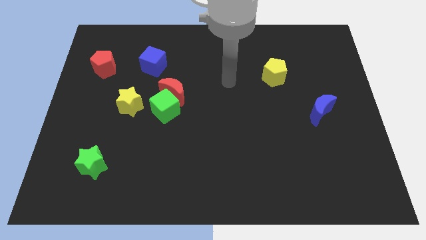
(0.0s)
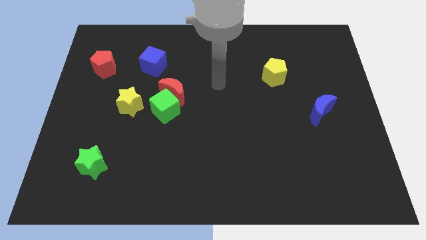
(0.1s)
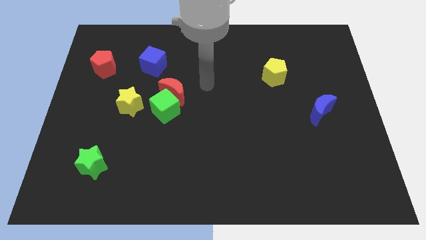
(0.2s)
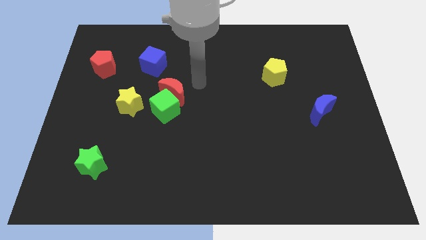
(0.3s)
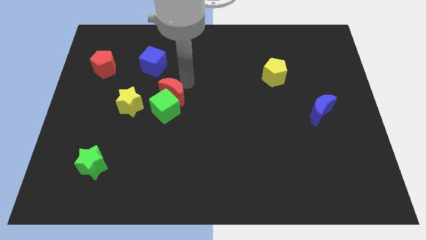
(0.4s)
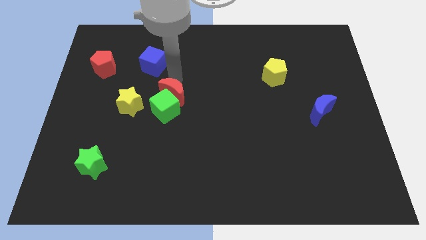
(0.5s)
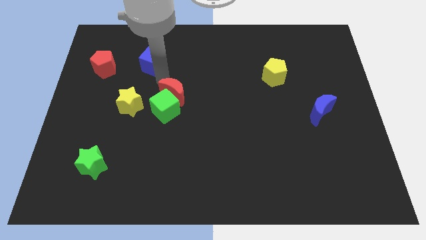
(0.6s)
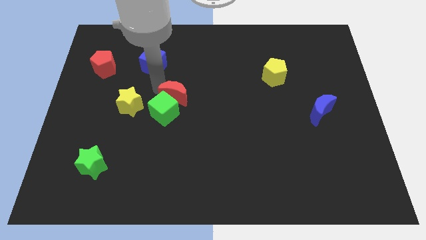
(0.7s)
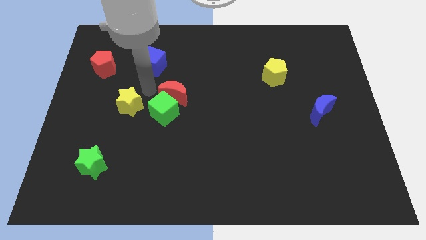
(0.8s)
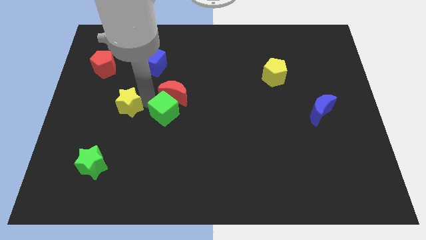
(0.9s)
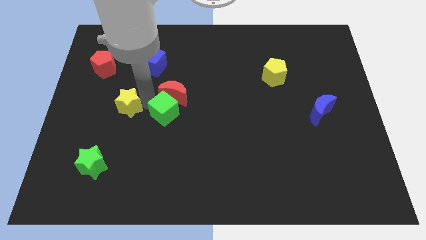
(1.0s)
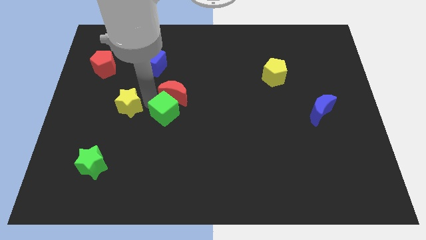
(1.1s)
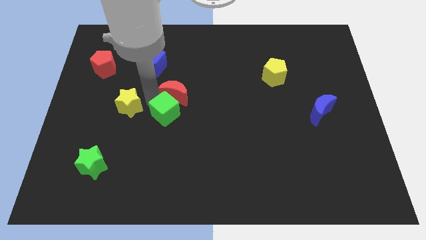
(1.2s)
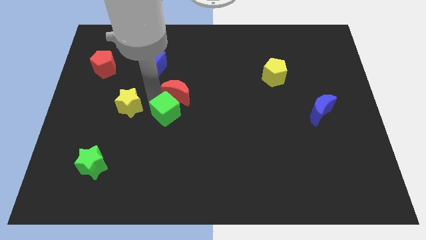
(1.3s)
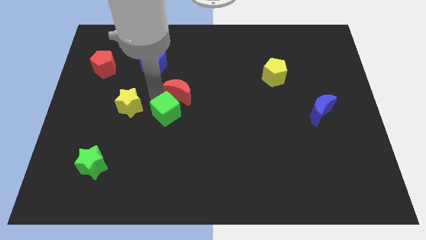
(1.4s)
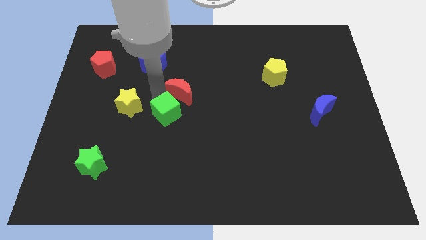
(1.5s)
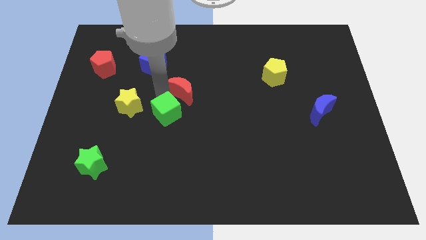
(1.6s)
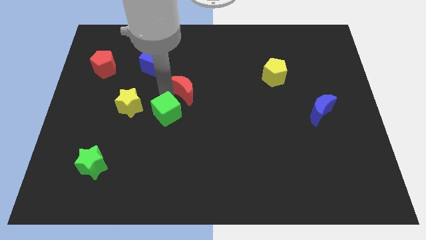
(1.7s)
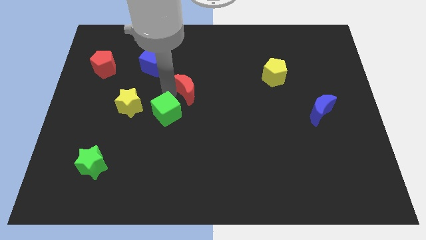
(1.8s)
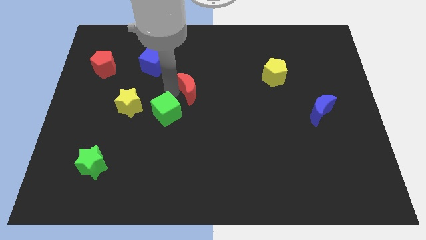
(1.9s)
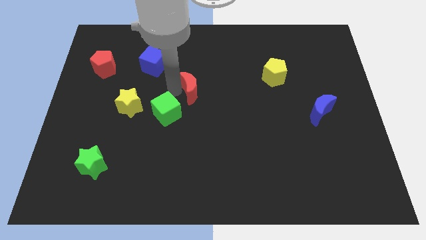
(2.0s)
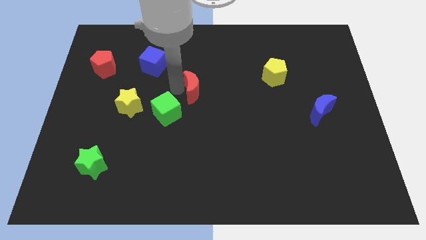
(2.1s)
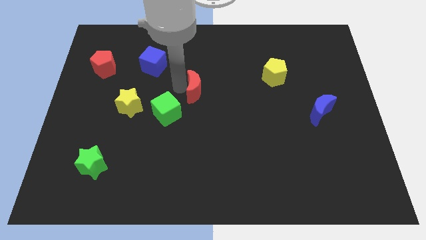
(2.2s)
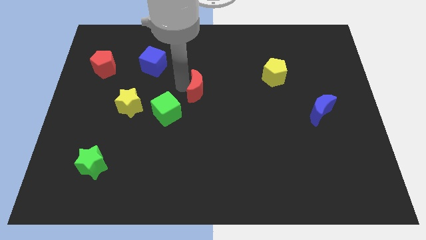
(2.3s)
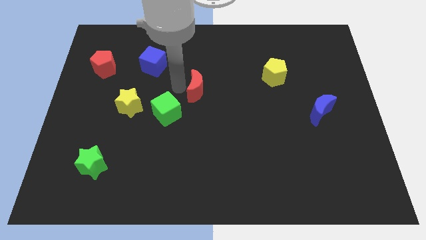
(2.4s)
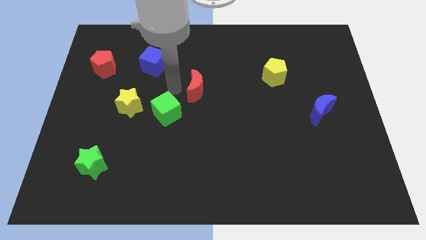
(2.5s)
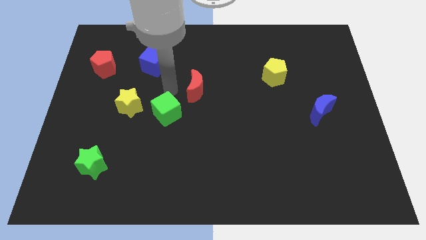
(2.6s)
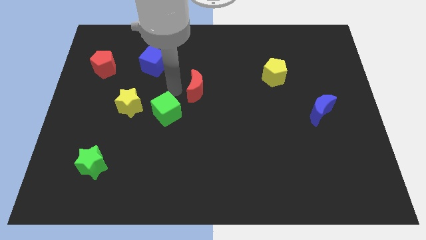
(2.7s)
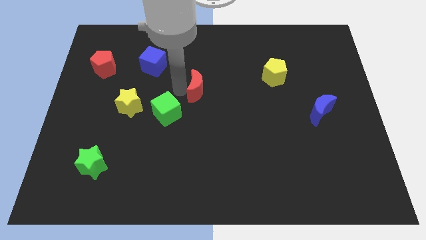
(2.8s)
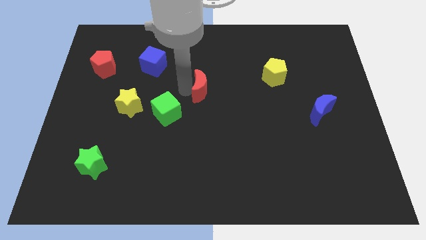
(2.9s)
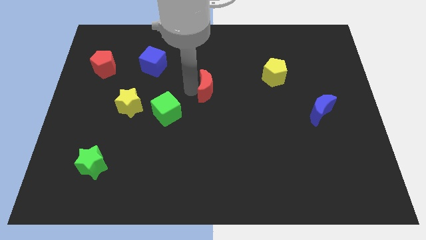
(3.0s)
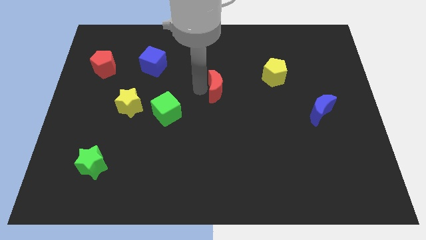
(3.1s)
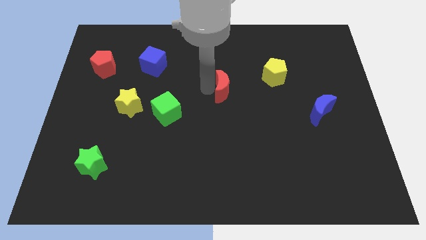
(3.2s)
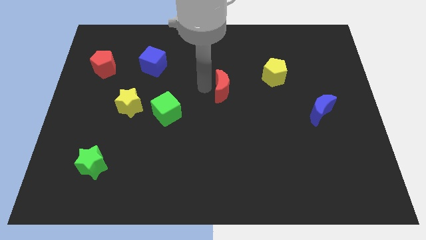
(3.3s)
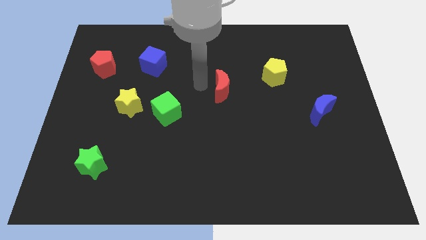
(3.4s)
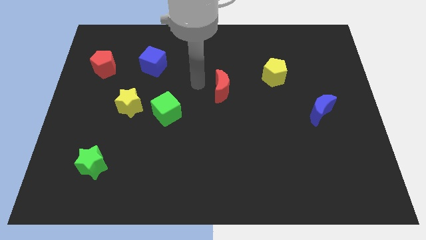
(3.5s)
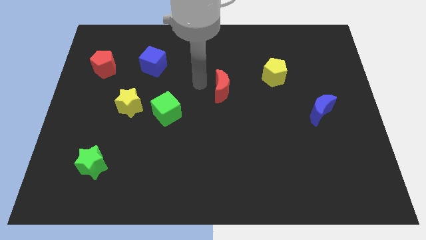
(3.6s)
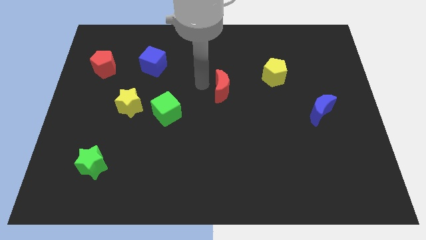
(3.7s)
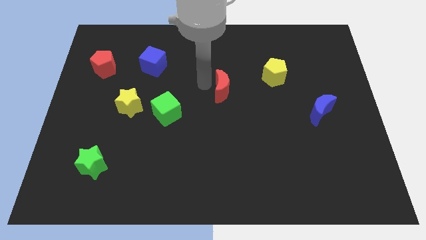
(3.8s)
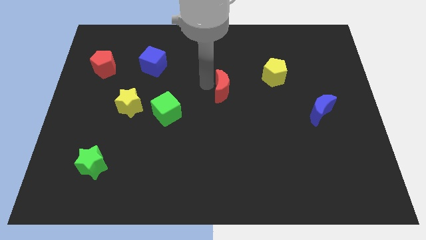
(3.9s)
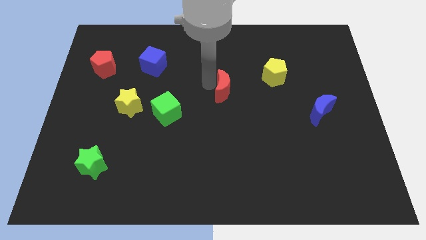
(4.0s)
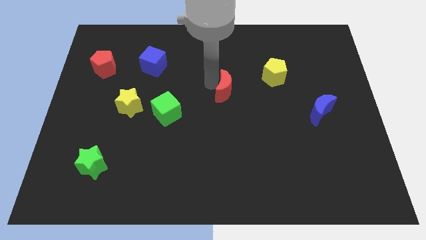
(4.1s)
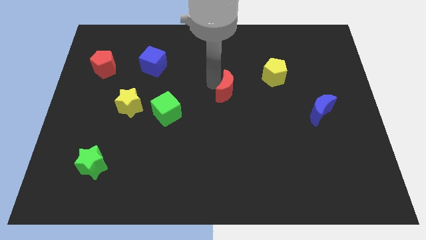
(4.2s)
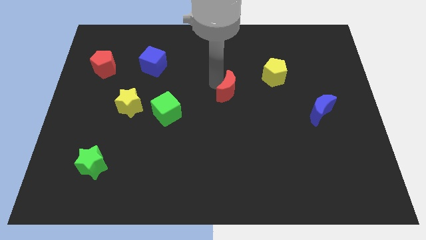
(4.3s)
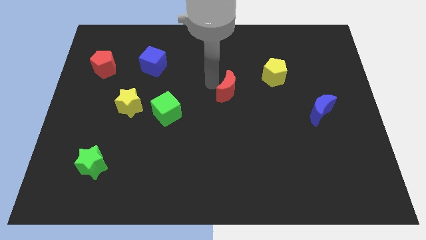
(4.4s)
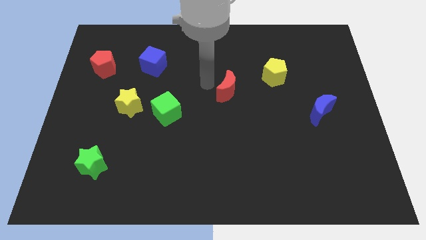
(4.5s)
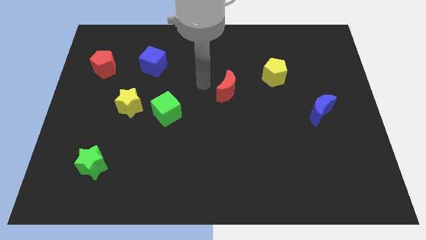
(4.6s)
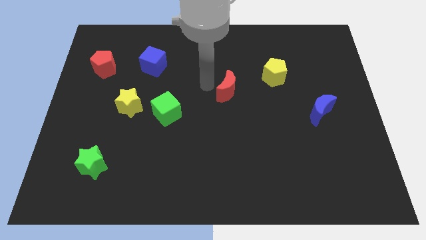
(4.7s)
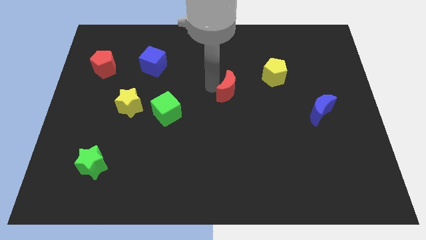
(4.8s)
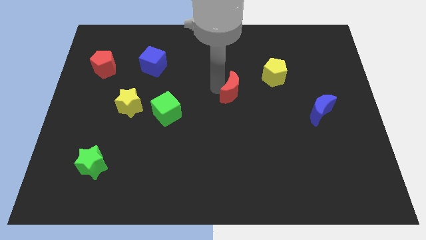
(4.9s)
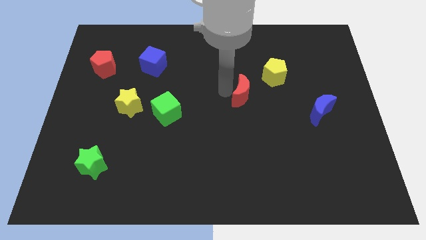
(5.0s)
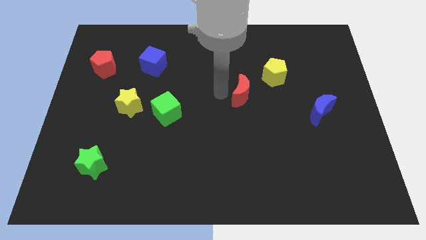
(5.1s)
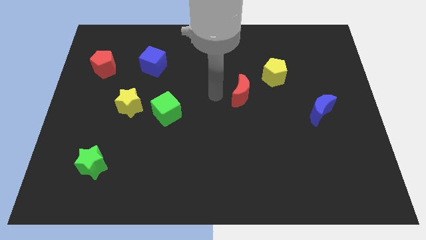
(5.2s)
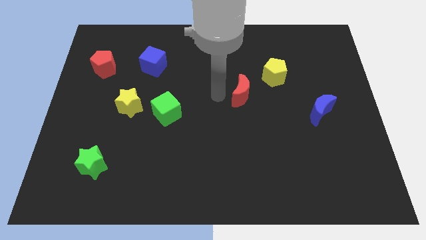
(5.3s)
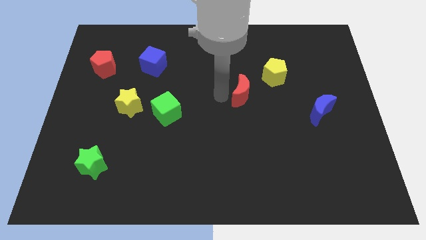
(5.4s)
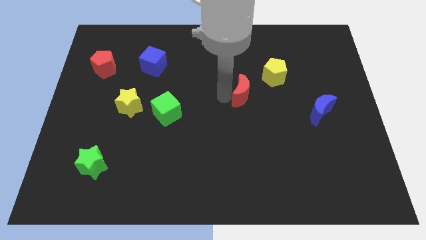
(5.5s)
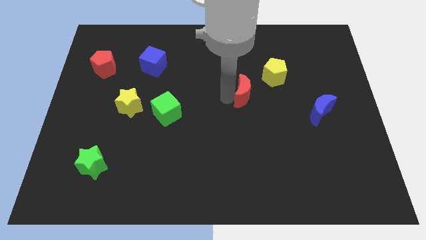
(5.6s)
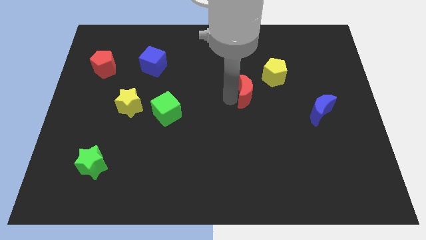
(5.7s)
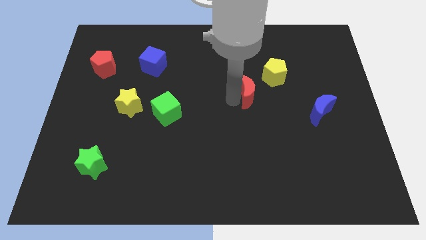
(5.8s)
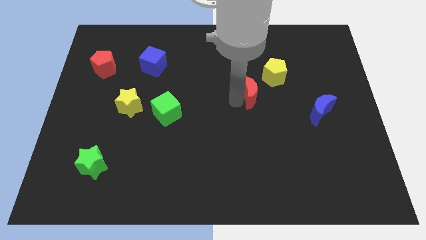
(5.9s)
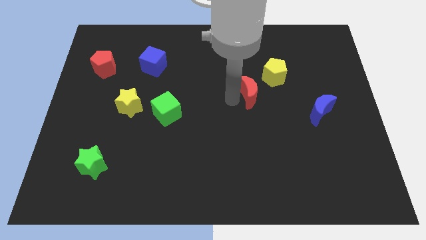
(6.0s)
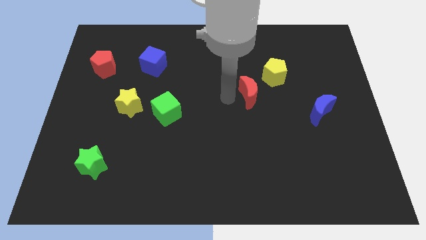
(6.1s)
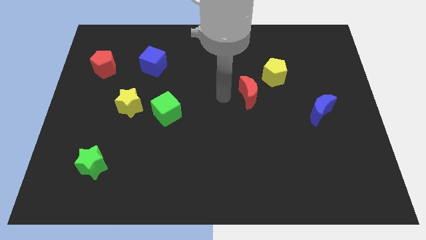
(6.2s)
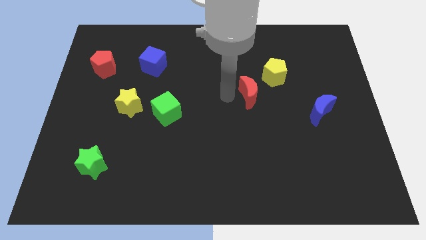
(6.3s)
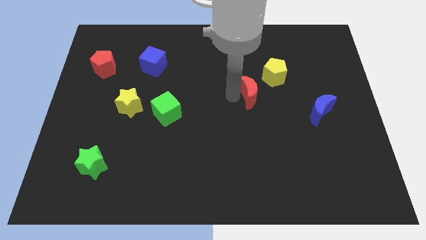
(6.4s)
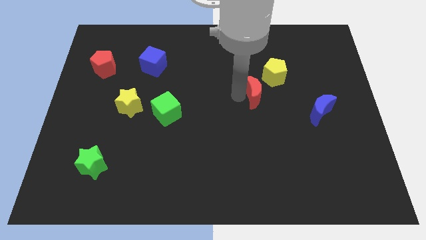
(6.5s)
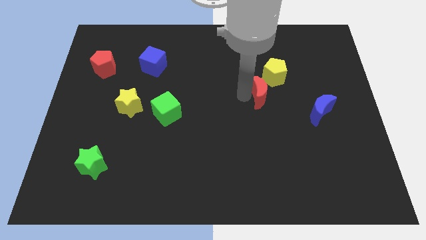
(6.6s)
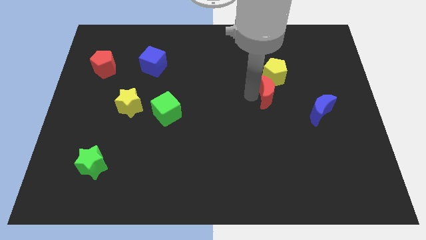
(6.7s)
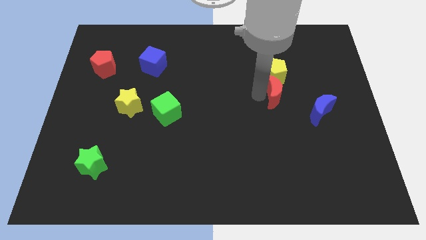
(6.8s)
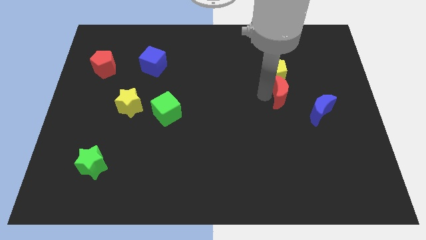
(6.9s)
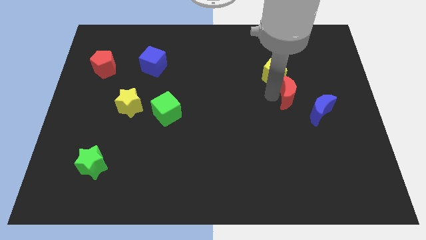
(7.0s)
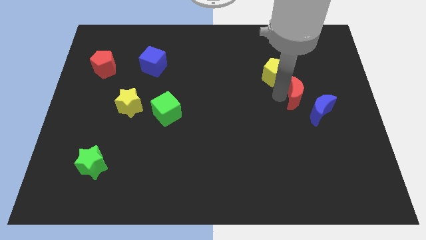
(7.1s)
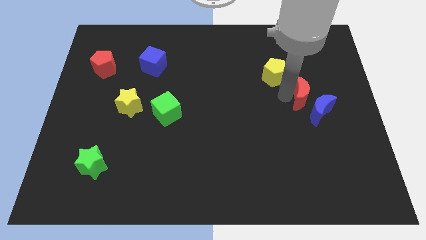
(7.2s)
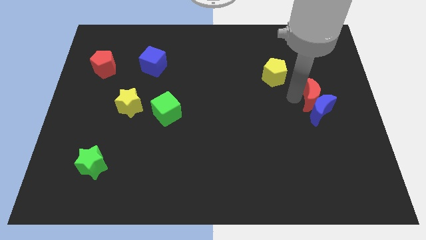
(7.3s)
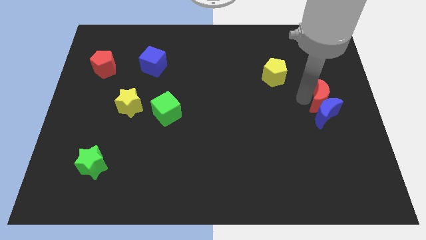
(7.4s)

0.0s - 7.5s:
move the red moon to the center right
